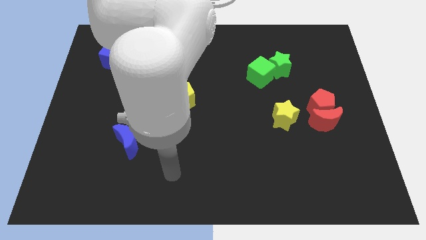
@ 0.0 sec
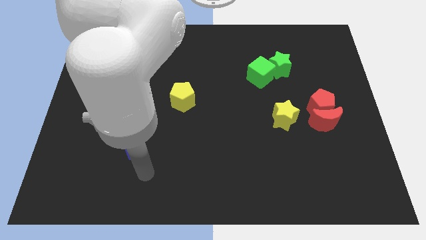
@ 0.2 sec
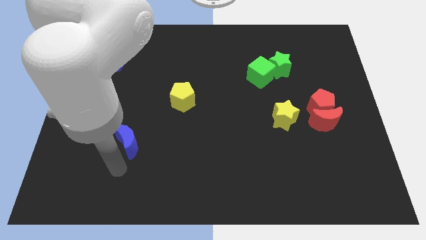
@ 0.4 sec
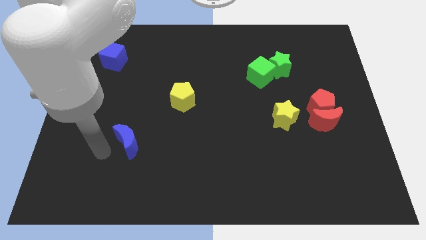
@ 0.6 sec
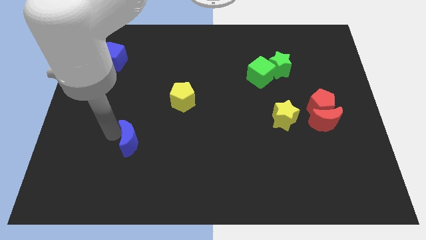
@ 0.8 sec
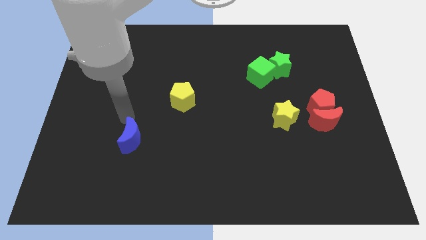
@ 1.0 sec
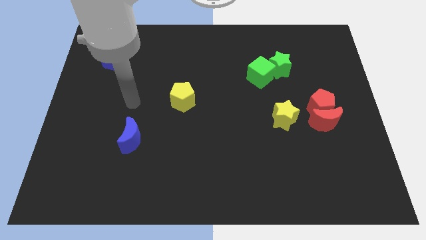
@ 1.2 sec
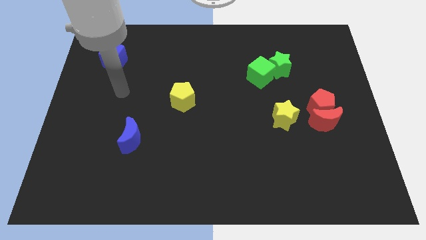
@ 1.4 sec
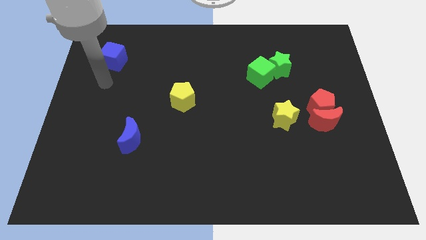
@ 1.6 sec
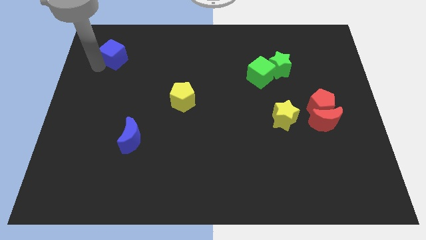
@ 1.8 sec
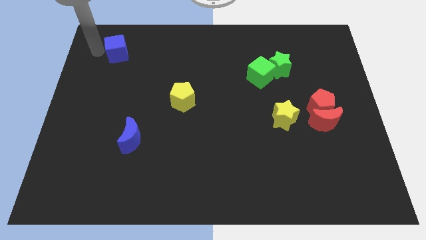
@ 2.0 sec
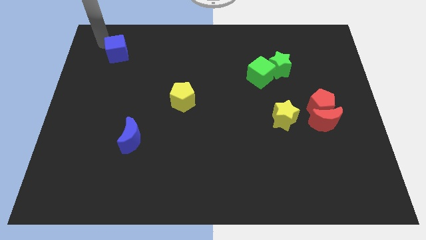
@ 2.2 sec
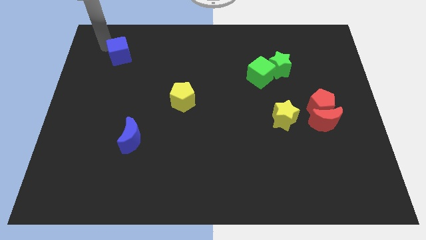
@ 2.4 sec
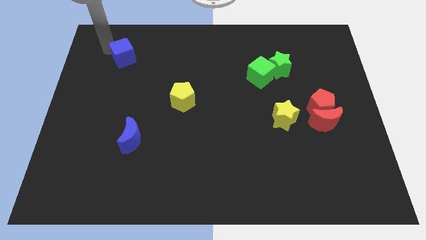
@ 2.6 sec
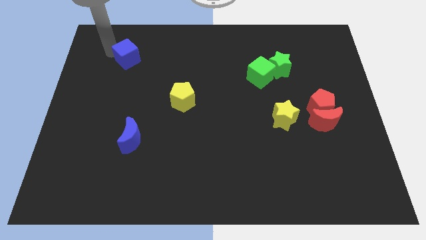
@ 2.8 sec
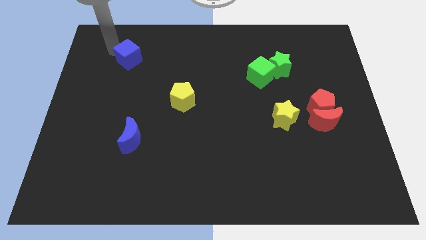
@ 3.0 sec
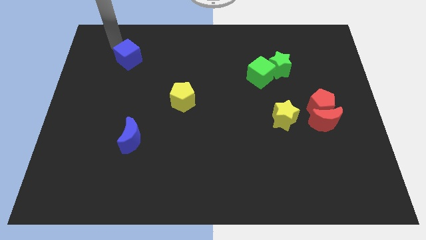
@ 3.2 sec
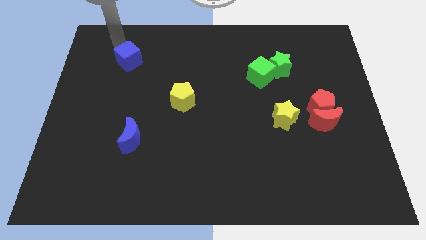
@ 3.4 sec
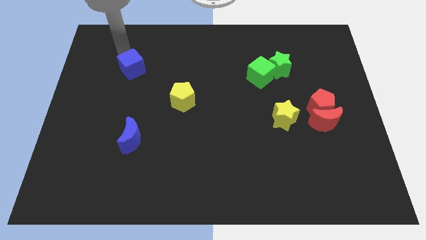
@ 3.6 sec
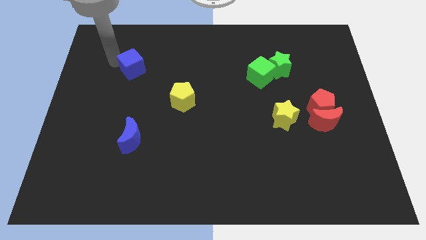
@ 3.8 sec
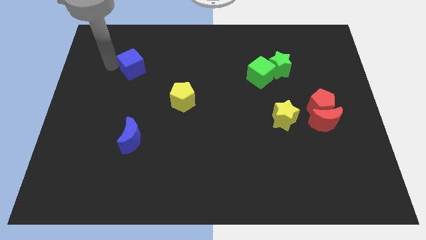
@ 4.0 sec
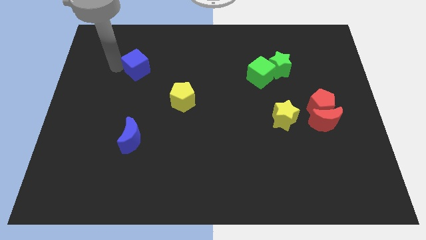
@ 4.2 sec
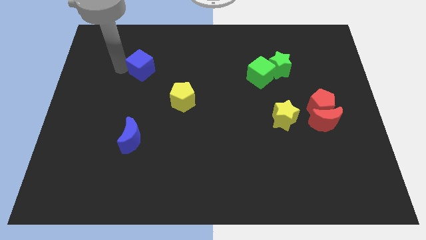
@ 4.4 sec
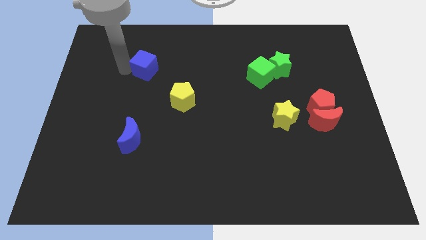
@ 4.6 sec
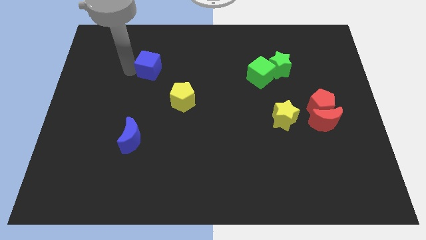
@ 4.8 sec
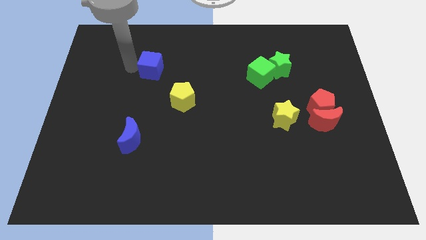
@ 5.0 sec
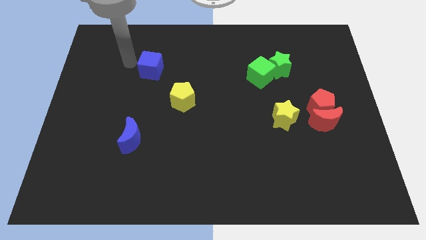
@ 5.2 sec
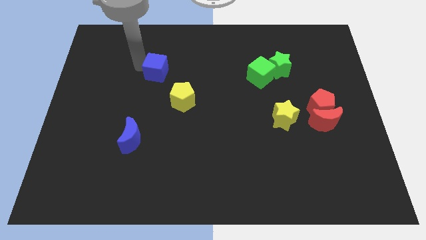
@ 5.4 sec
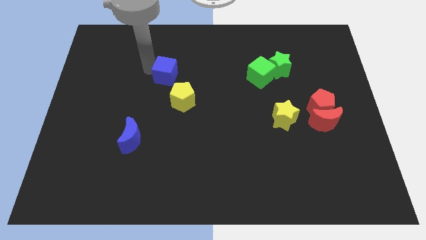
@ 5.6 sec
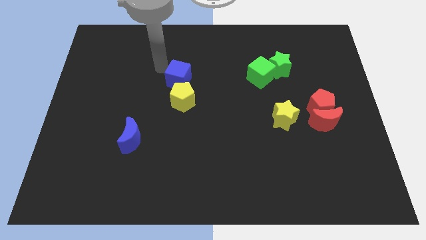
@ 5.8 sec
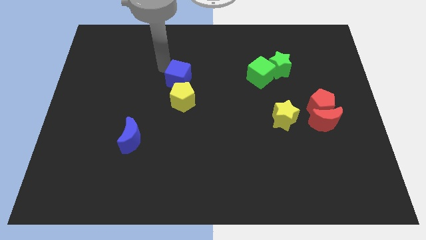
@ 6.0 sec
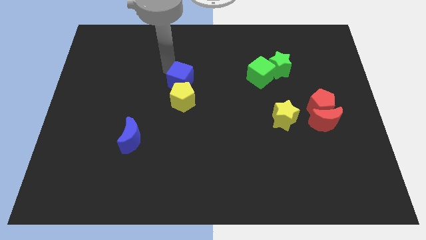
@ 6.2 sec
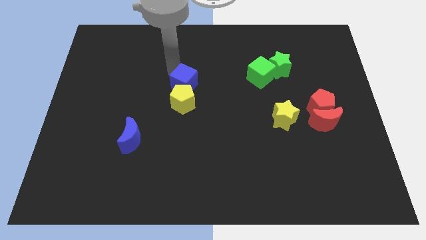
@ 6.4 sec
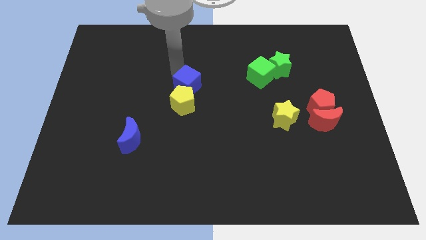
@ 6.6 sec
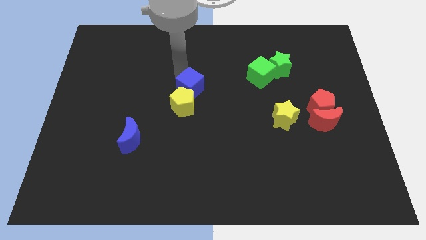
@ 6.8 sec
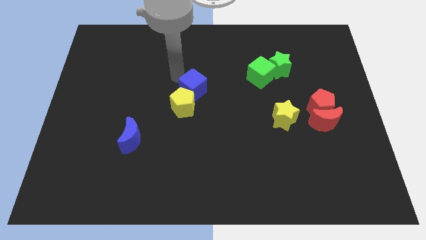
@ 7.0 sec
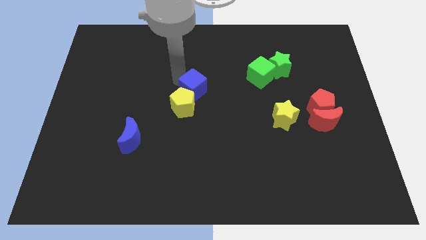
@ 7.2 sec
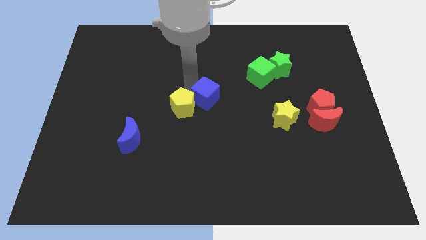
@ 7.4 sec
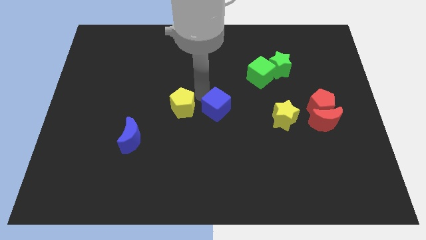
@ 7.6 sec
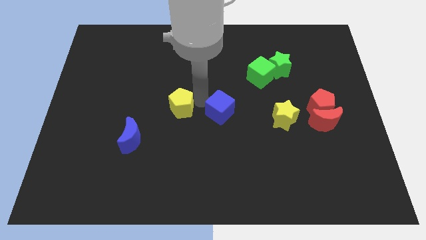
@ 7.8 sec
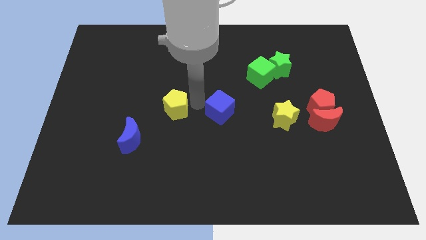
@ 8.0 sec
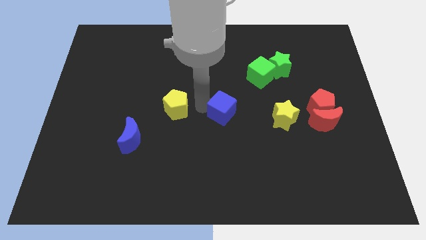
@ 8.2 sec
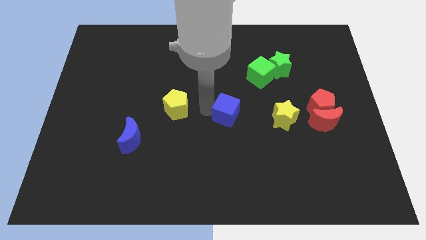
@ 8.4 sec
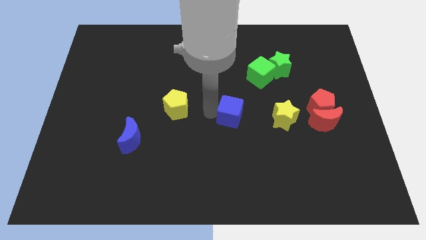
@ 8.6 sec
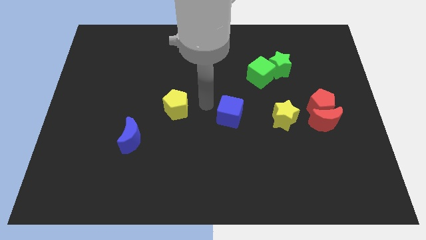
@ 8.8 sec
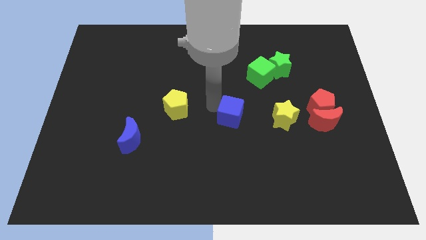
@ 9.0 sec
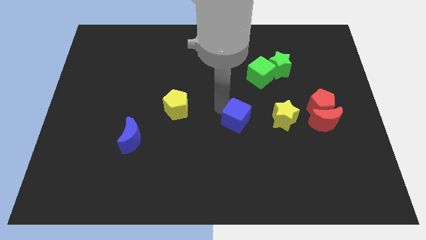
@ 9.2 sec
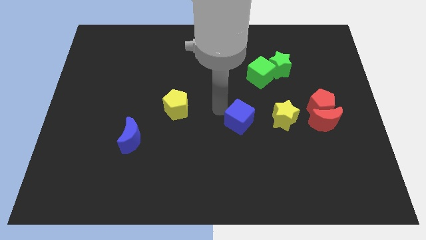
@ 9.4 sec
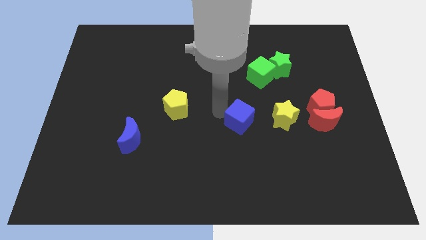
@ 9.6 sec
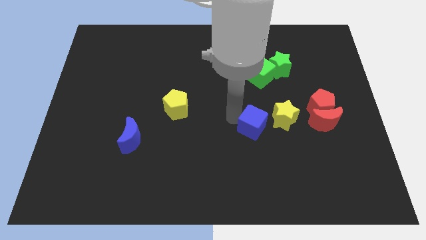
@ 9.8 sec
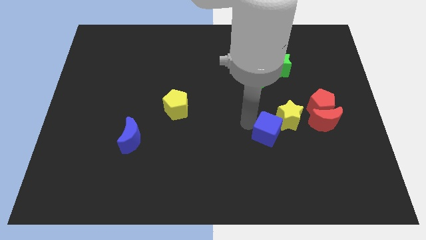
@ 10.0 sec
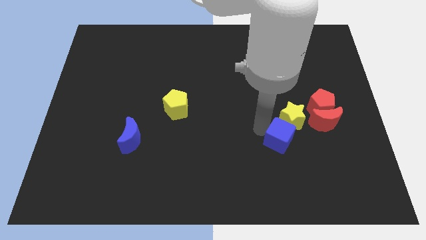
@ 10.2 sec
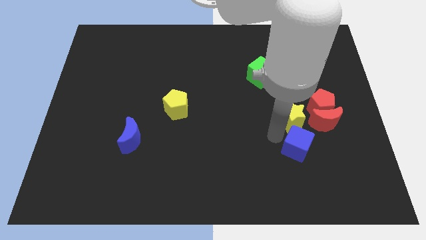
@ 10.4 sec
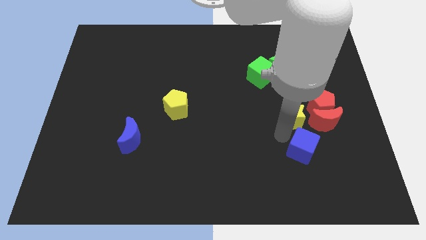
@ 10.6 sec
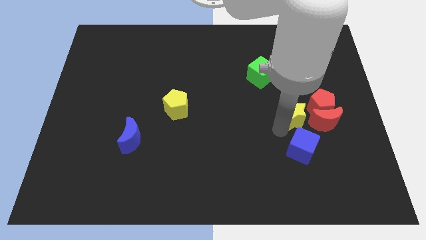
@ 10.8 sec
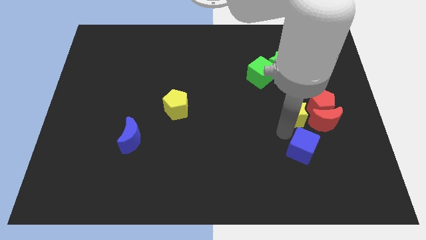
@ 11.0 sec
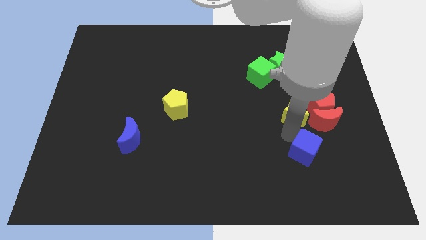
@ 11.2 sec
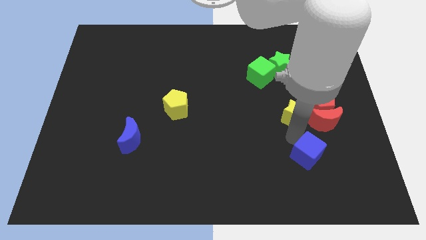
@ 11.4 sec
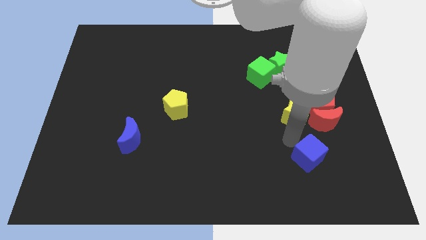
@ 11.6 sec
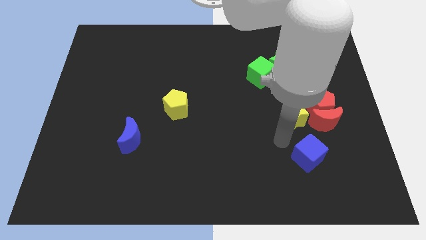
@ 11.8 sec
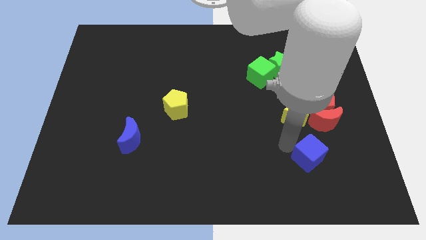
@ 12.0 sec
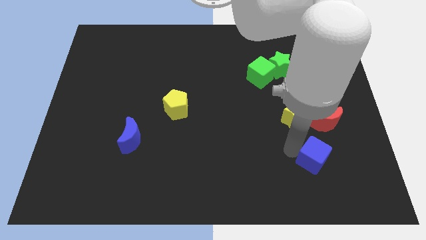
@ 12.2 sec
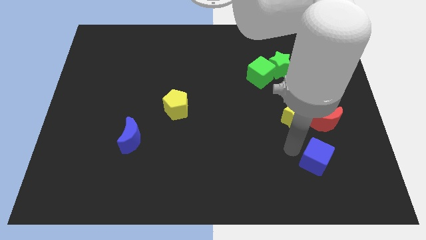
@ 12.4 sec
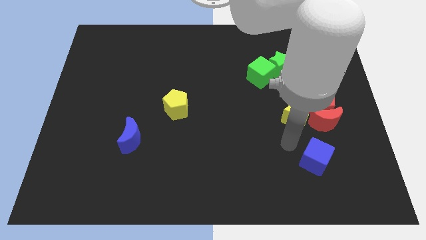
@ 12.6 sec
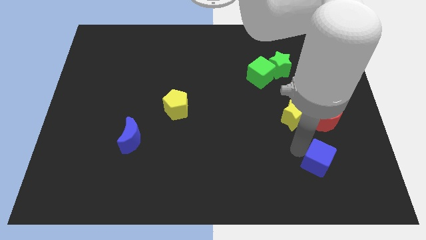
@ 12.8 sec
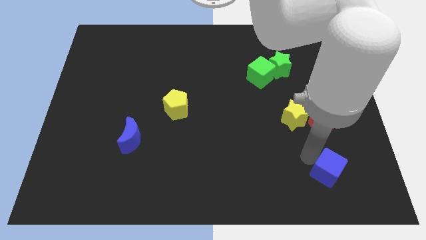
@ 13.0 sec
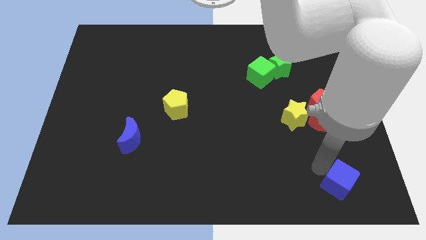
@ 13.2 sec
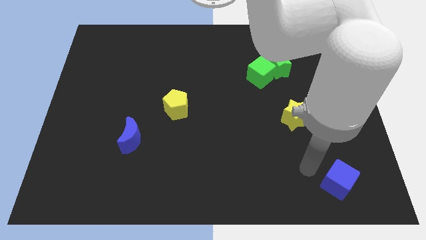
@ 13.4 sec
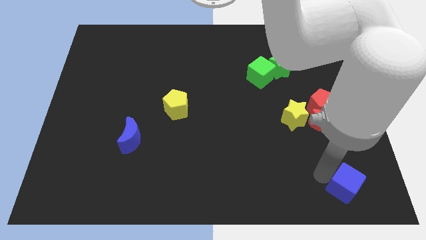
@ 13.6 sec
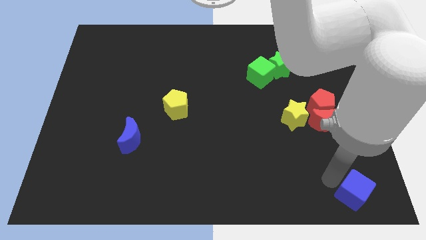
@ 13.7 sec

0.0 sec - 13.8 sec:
slide the blue cube to the bottom right of the board

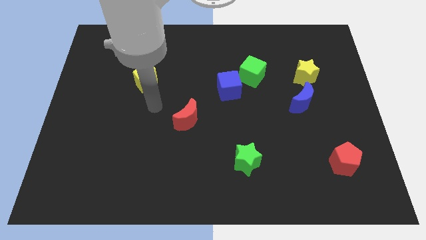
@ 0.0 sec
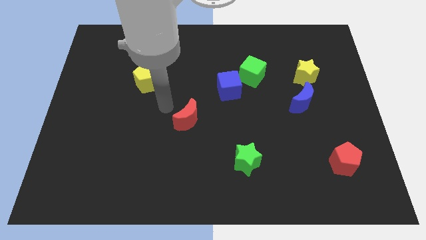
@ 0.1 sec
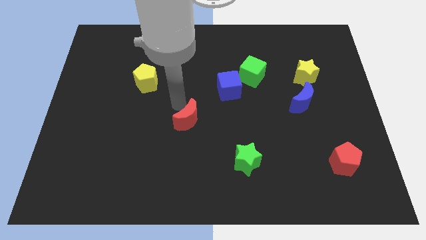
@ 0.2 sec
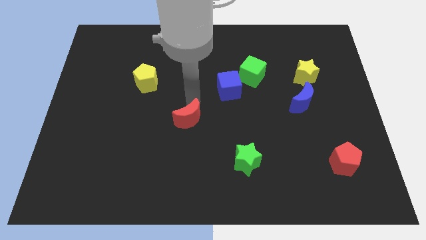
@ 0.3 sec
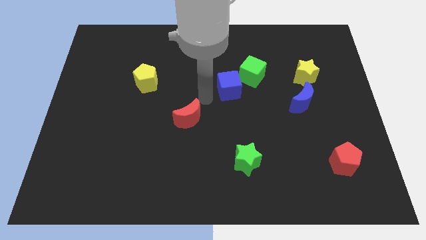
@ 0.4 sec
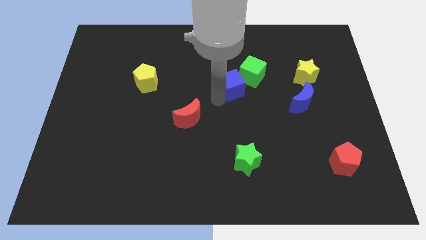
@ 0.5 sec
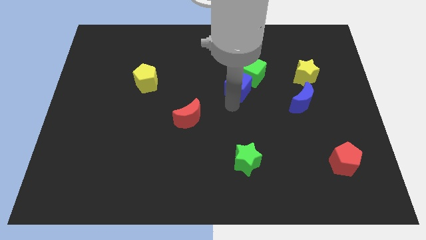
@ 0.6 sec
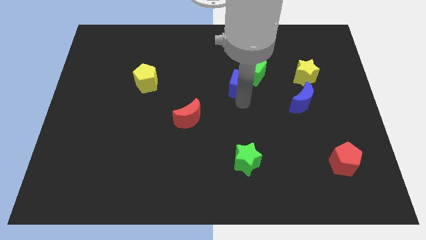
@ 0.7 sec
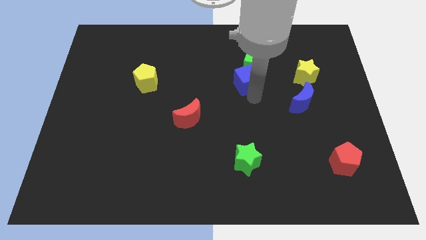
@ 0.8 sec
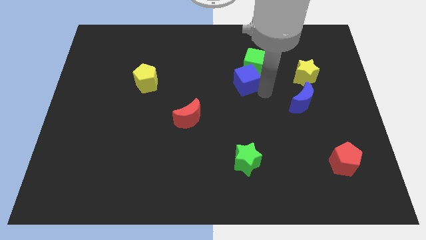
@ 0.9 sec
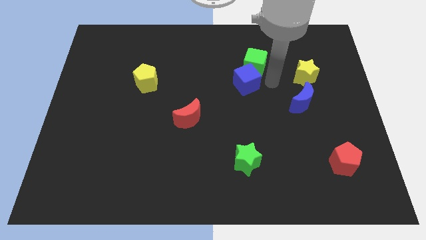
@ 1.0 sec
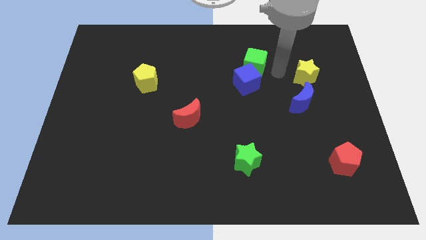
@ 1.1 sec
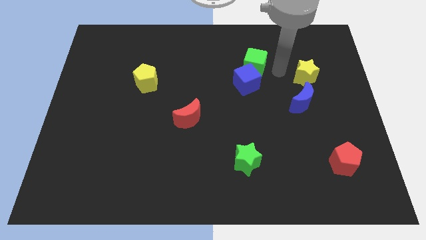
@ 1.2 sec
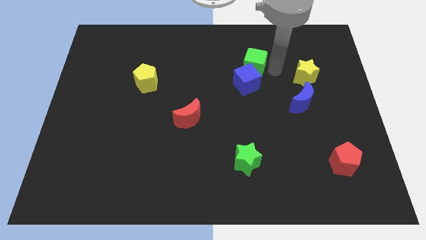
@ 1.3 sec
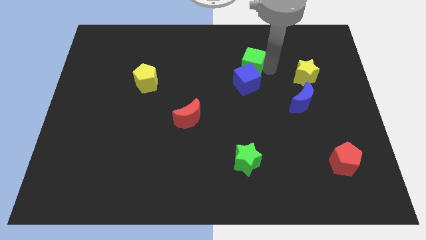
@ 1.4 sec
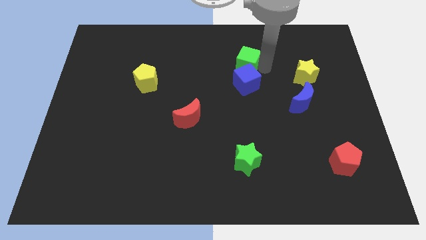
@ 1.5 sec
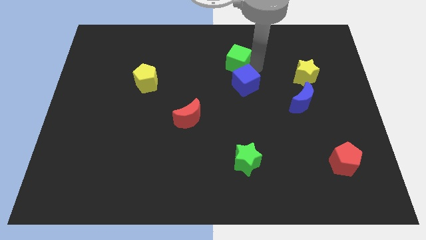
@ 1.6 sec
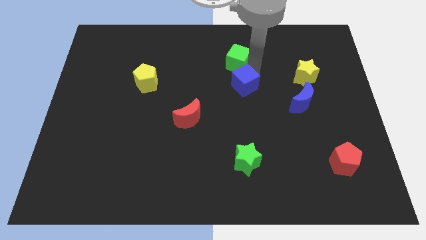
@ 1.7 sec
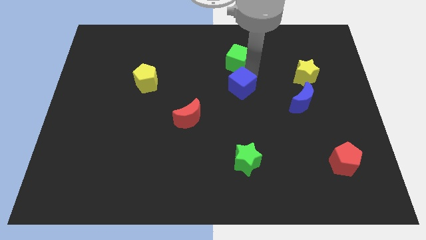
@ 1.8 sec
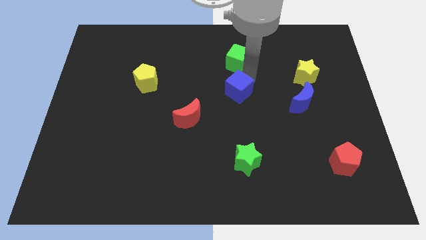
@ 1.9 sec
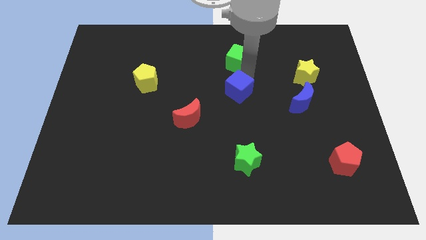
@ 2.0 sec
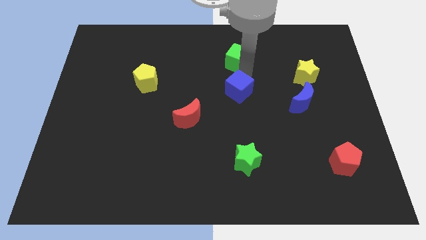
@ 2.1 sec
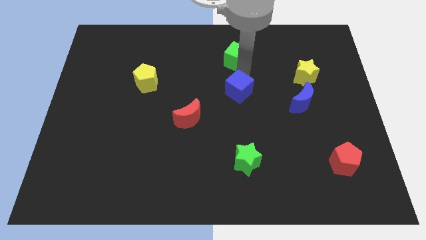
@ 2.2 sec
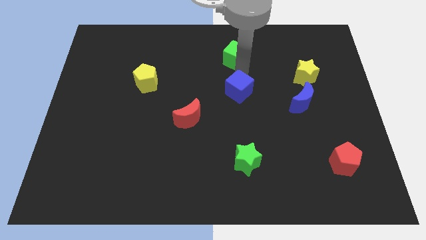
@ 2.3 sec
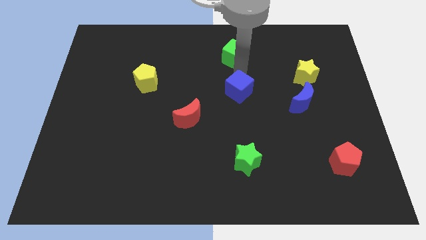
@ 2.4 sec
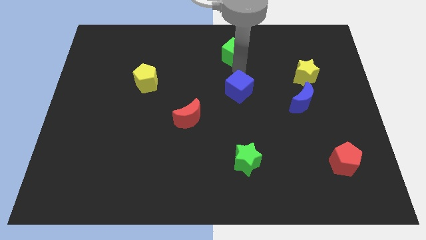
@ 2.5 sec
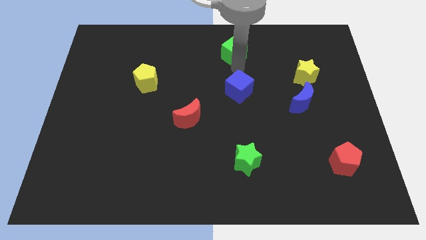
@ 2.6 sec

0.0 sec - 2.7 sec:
put the green cube to the top side
